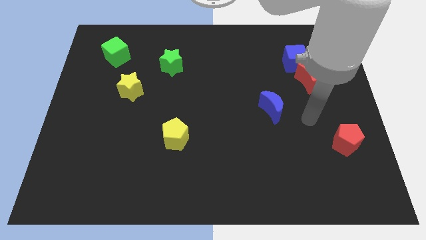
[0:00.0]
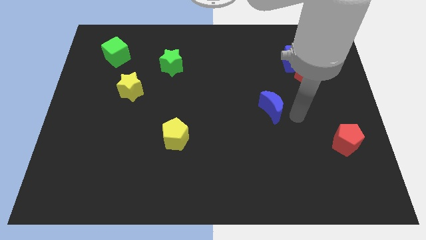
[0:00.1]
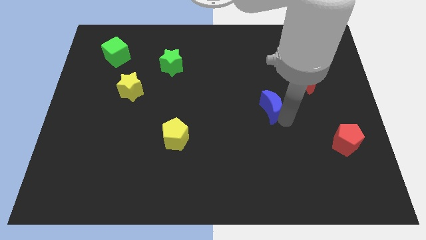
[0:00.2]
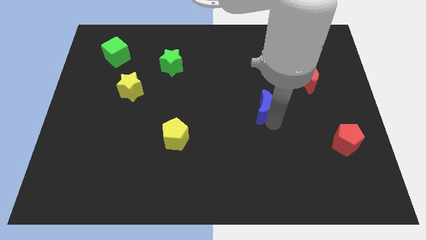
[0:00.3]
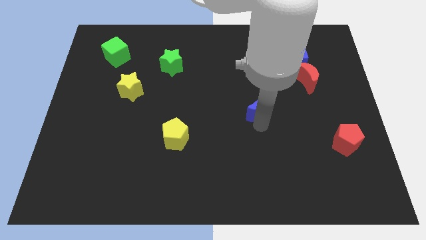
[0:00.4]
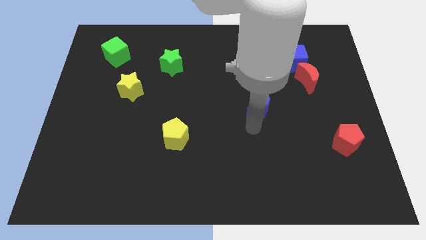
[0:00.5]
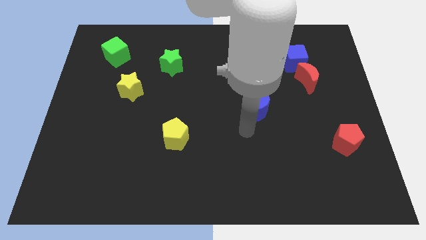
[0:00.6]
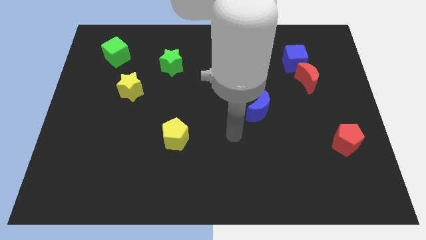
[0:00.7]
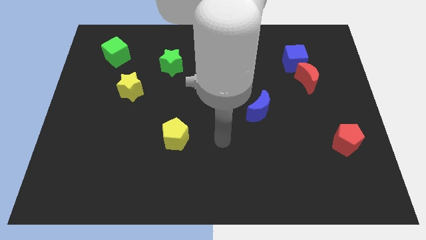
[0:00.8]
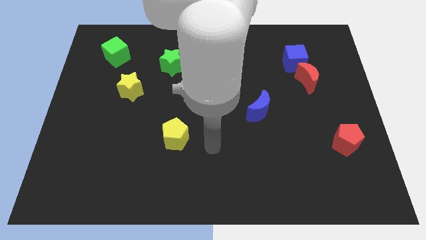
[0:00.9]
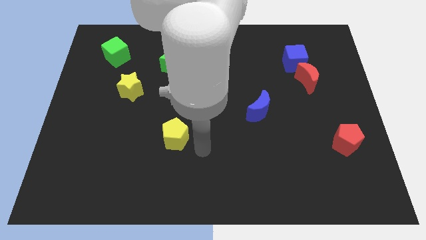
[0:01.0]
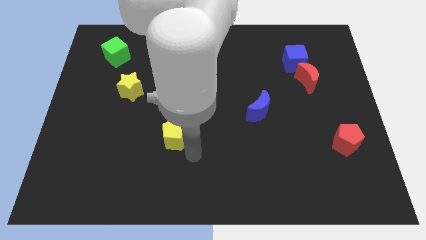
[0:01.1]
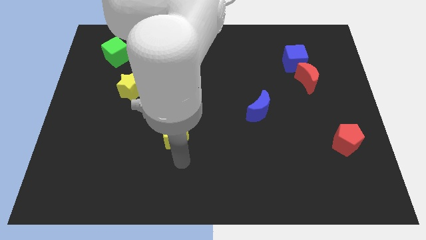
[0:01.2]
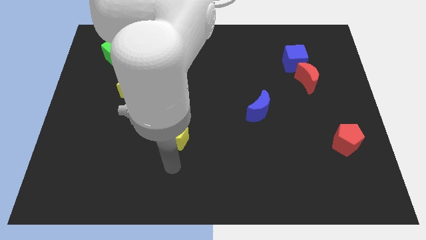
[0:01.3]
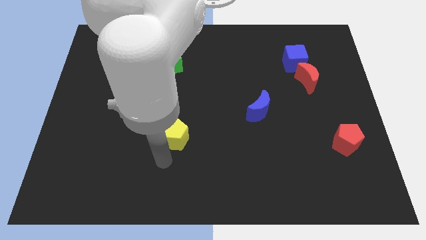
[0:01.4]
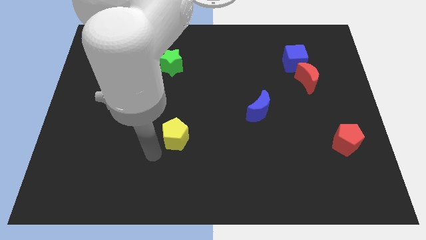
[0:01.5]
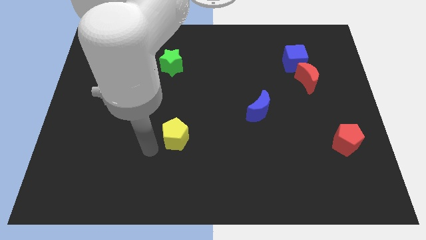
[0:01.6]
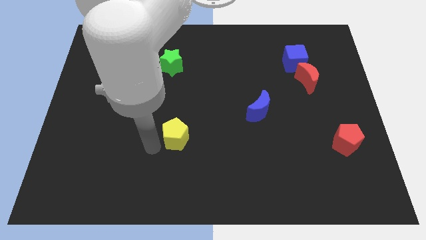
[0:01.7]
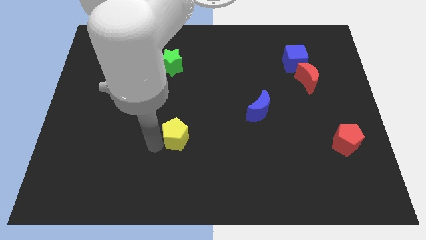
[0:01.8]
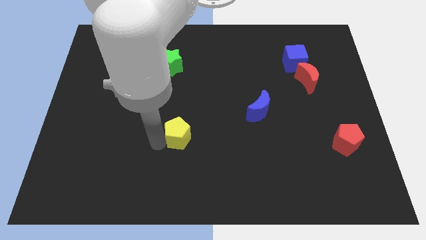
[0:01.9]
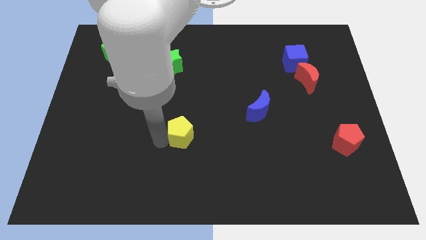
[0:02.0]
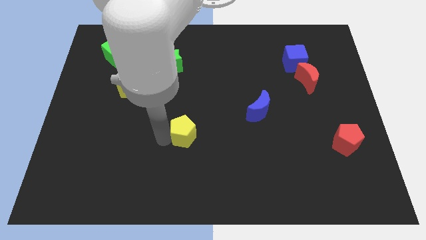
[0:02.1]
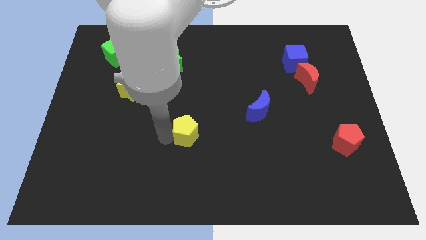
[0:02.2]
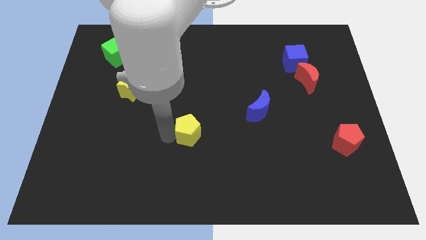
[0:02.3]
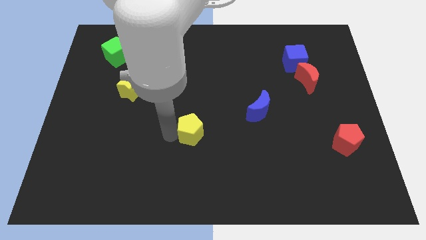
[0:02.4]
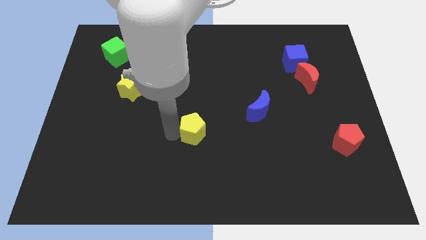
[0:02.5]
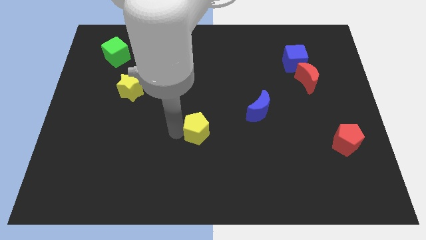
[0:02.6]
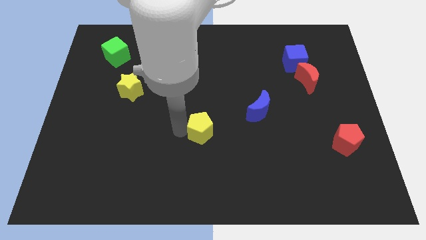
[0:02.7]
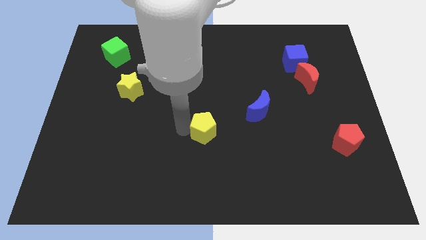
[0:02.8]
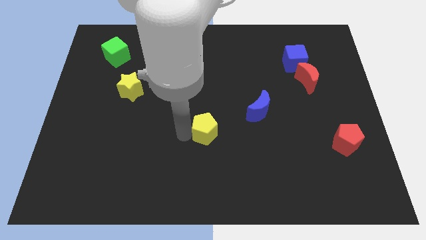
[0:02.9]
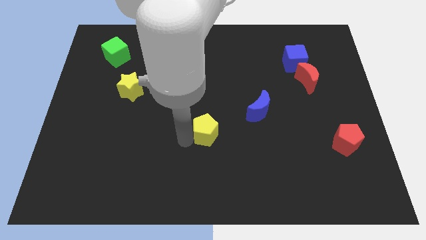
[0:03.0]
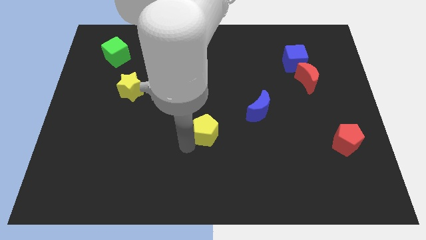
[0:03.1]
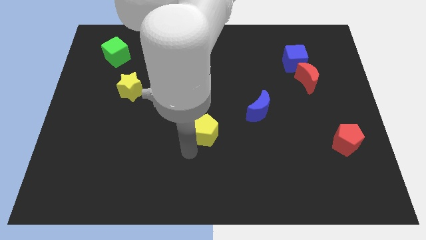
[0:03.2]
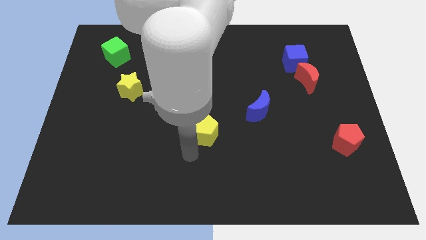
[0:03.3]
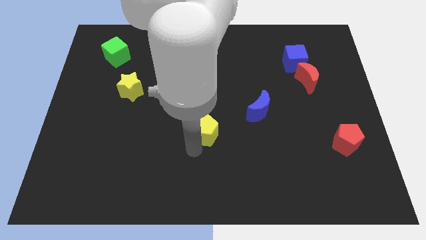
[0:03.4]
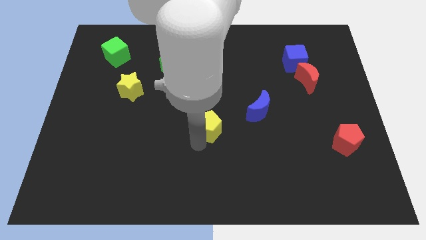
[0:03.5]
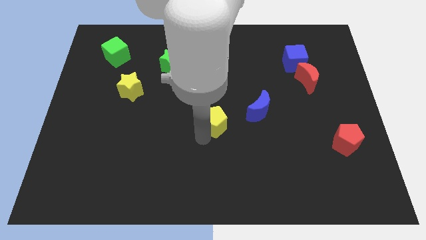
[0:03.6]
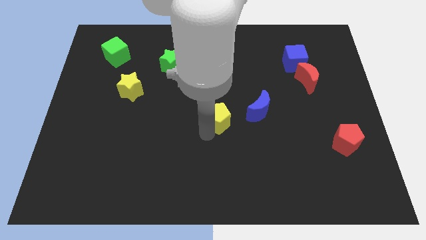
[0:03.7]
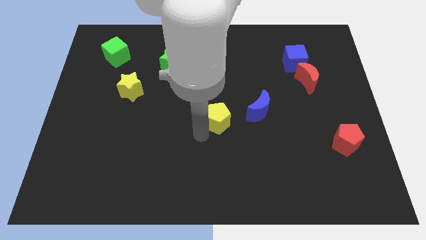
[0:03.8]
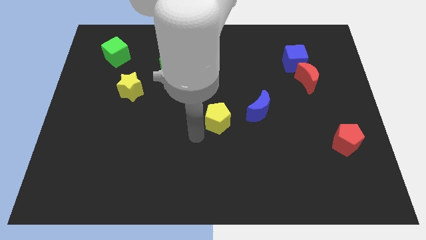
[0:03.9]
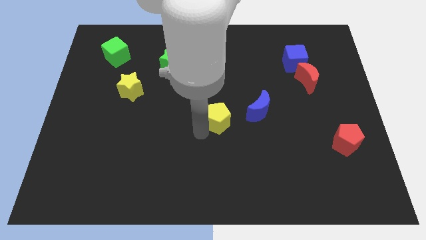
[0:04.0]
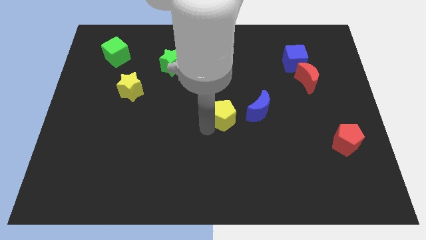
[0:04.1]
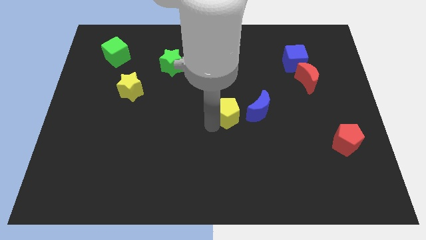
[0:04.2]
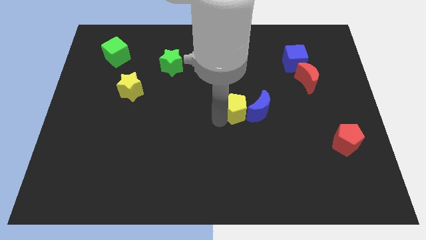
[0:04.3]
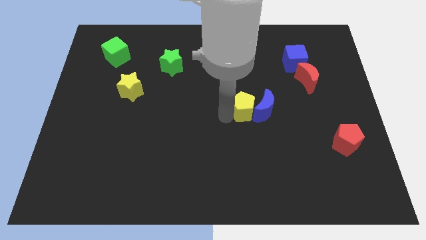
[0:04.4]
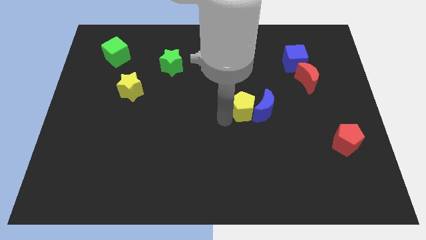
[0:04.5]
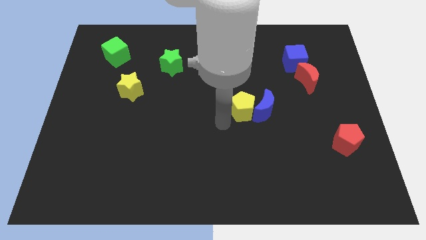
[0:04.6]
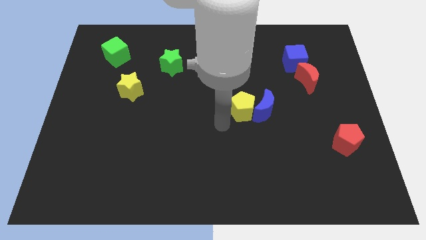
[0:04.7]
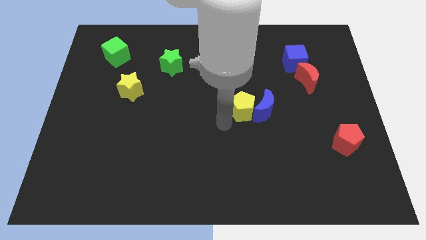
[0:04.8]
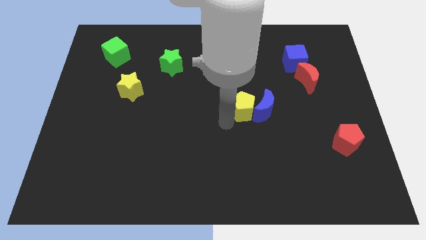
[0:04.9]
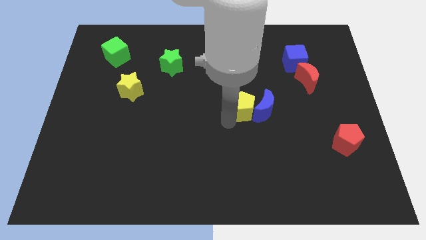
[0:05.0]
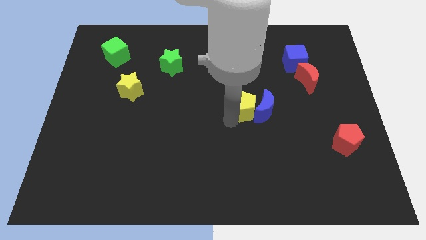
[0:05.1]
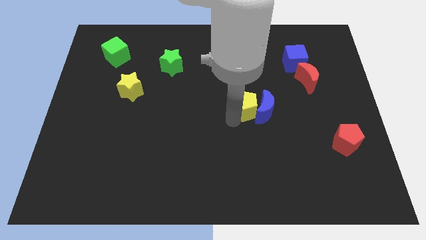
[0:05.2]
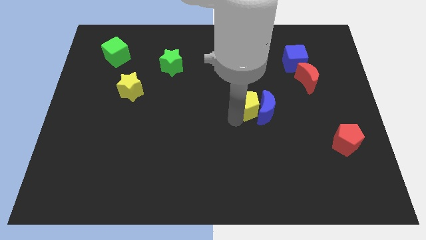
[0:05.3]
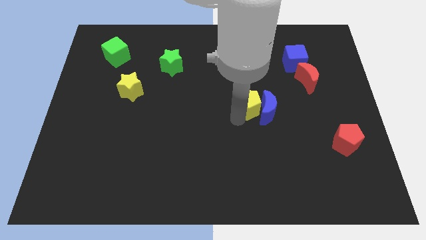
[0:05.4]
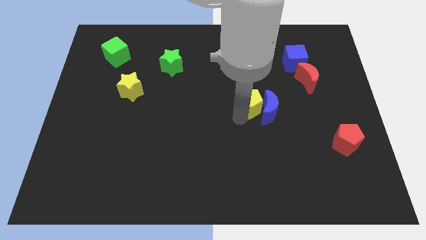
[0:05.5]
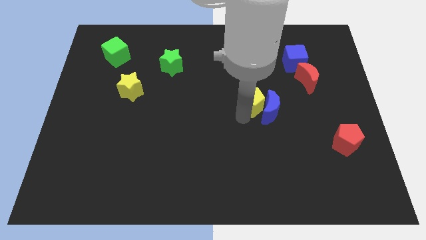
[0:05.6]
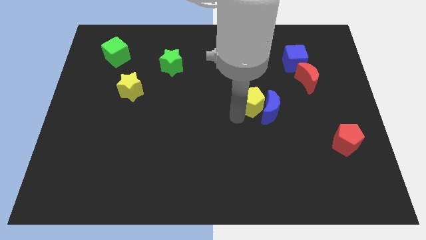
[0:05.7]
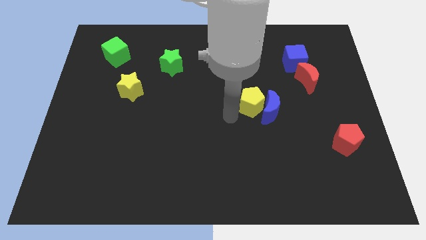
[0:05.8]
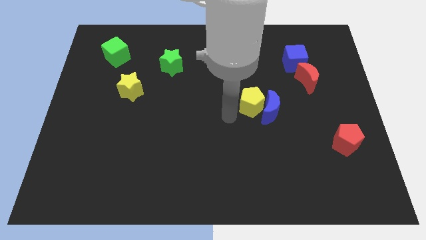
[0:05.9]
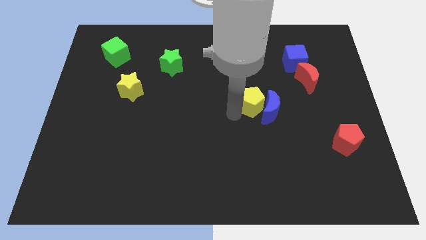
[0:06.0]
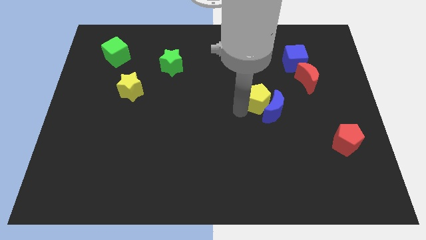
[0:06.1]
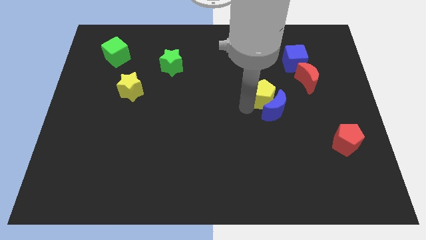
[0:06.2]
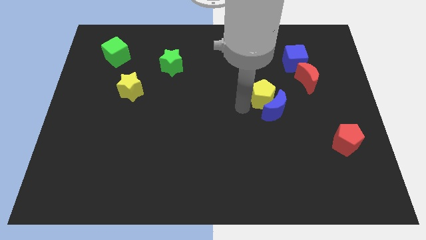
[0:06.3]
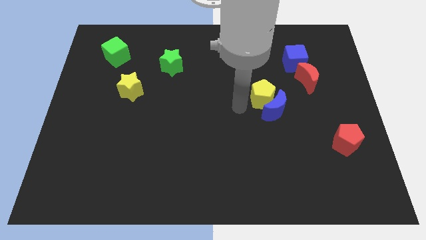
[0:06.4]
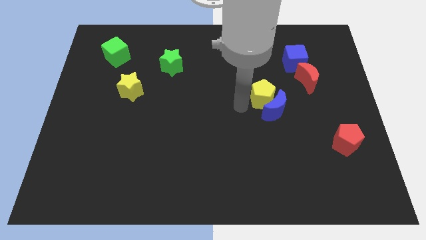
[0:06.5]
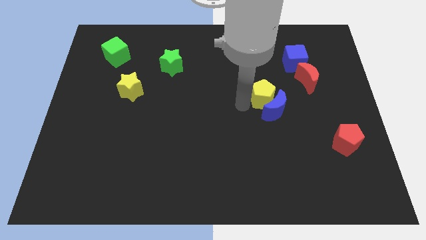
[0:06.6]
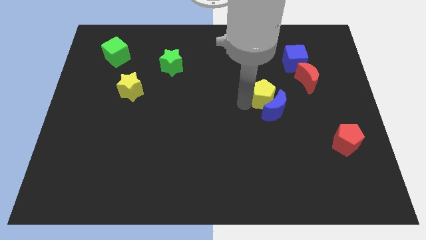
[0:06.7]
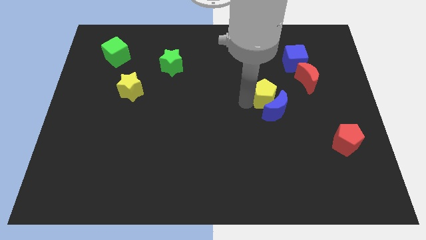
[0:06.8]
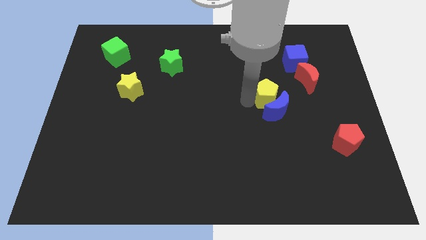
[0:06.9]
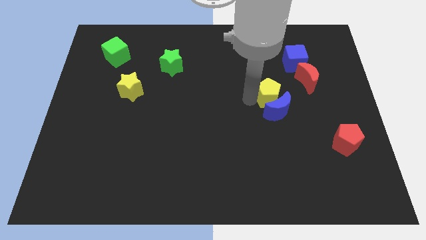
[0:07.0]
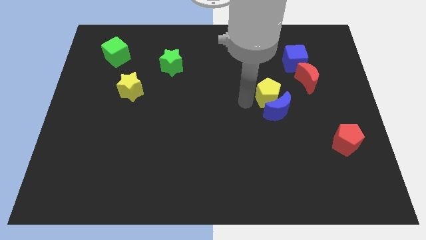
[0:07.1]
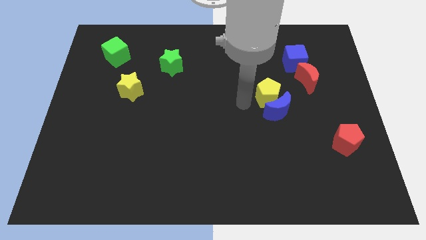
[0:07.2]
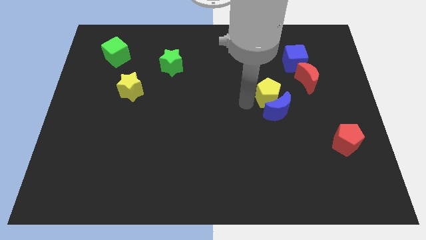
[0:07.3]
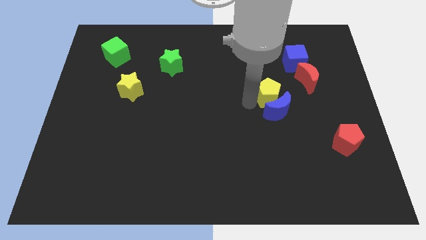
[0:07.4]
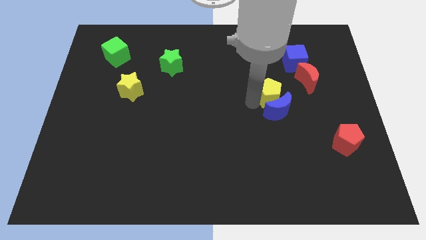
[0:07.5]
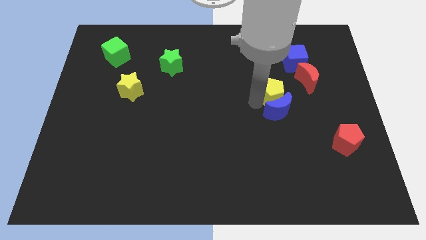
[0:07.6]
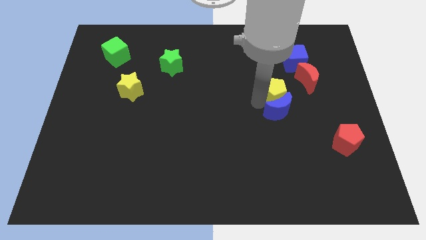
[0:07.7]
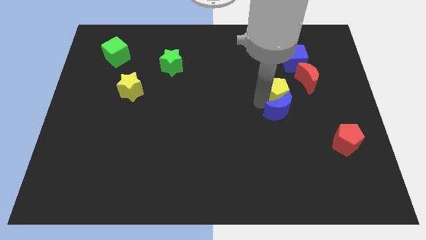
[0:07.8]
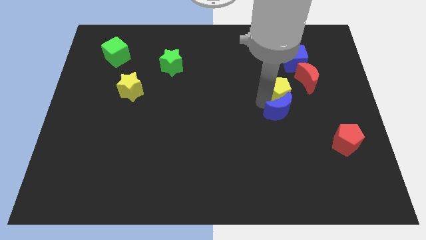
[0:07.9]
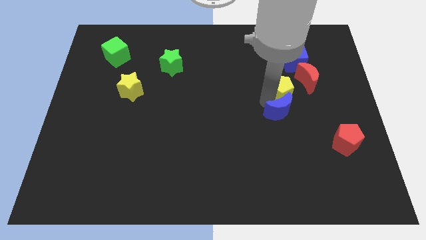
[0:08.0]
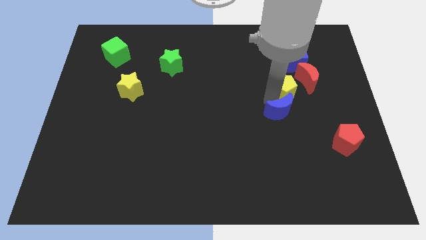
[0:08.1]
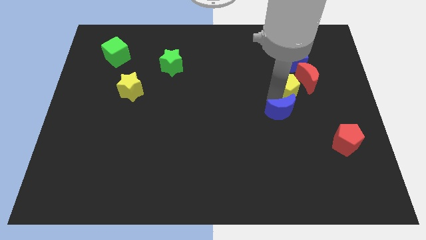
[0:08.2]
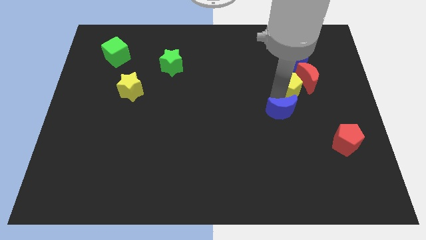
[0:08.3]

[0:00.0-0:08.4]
push the yellow pentagon to the red moon
